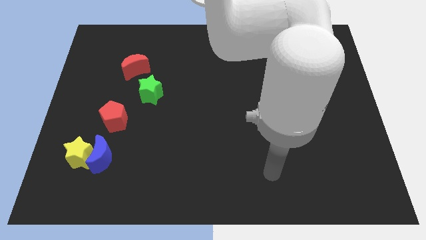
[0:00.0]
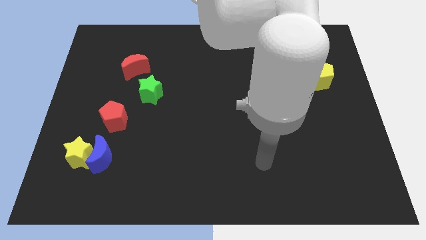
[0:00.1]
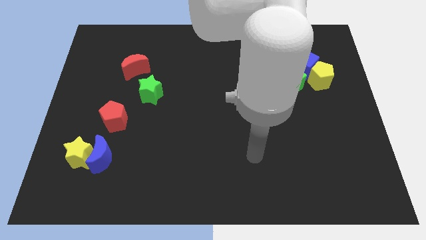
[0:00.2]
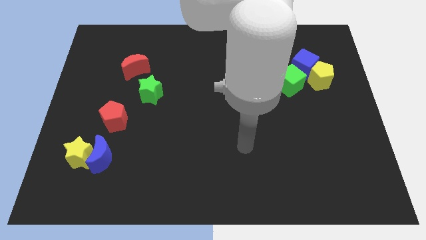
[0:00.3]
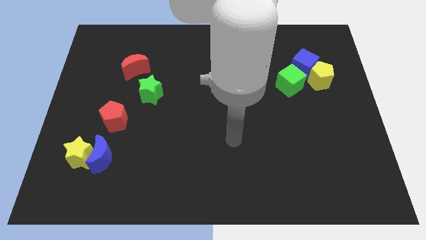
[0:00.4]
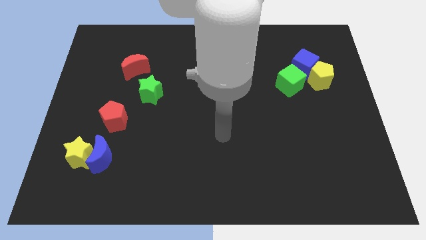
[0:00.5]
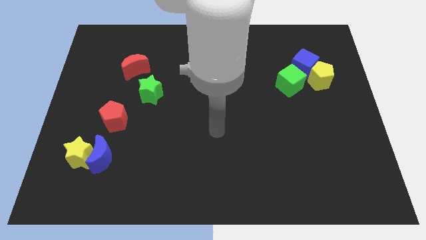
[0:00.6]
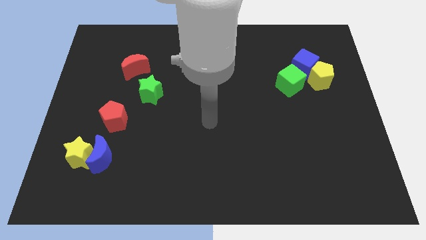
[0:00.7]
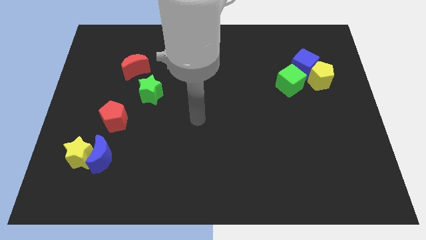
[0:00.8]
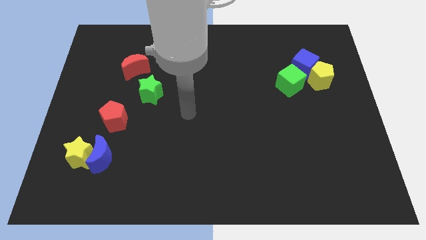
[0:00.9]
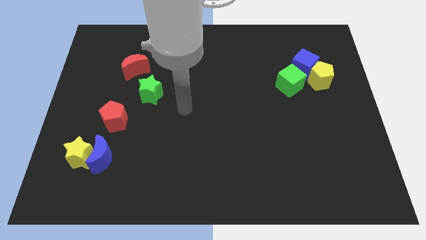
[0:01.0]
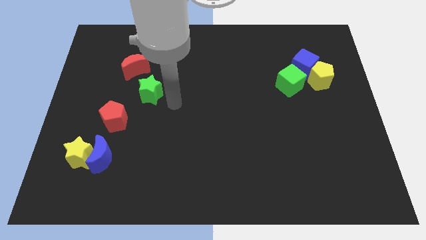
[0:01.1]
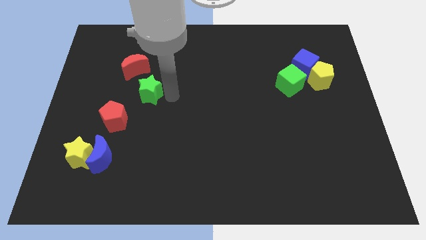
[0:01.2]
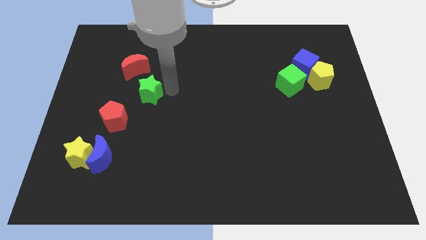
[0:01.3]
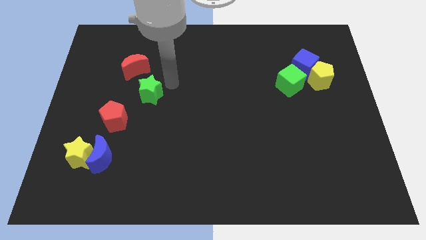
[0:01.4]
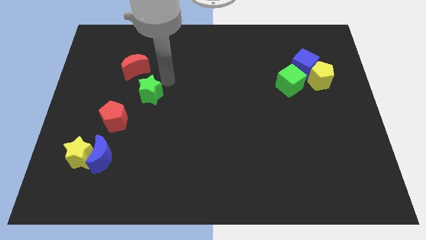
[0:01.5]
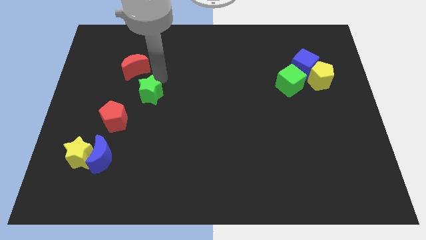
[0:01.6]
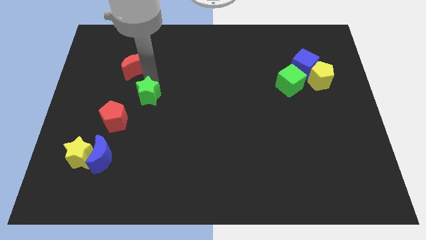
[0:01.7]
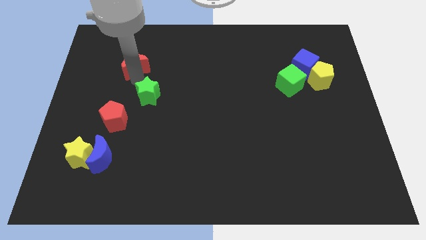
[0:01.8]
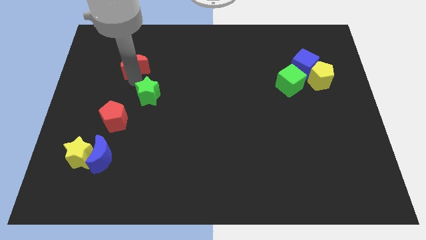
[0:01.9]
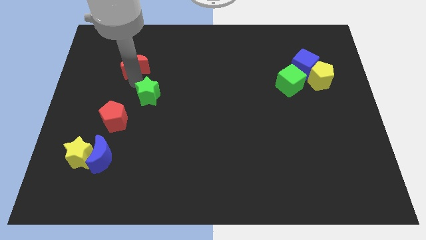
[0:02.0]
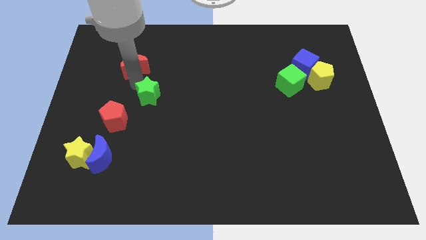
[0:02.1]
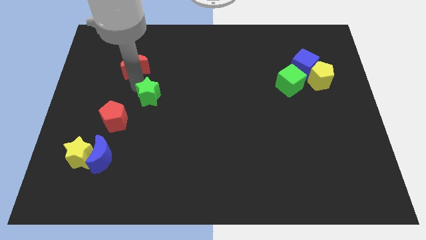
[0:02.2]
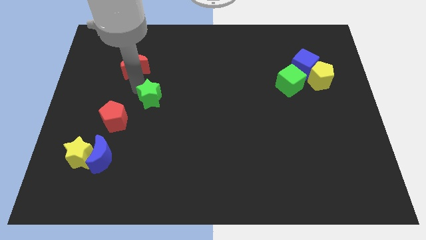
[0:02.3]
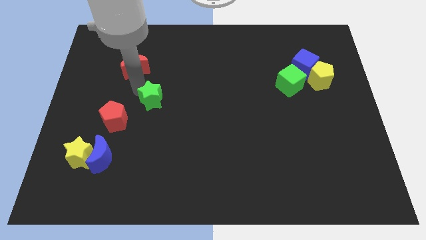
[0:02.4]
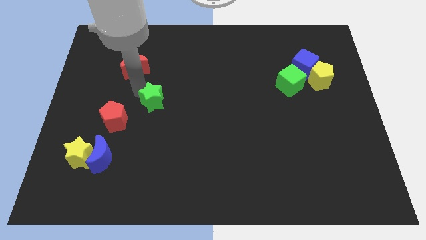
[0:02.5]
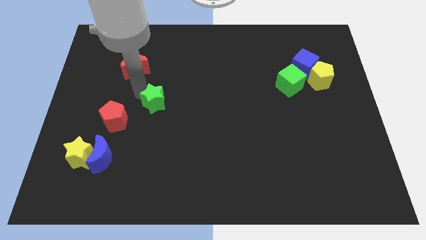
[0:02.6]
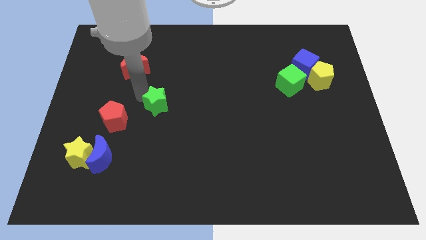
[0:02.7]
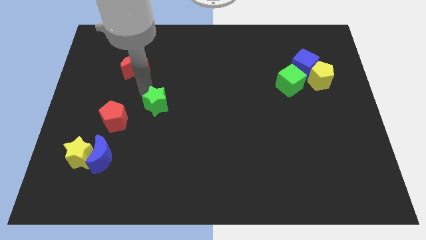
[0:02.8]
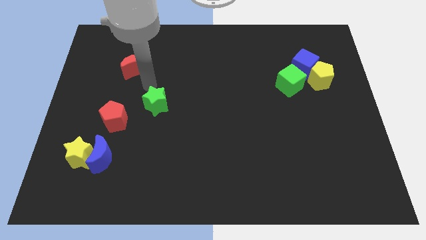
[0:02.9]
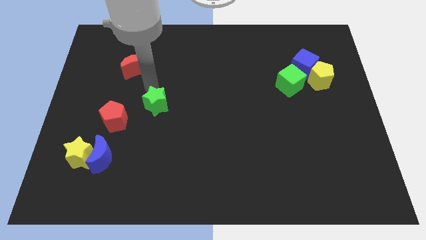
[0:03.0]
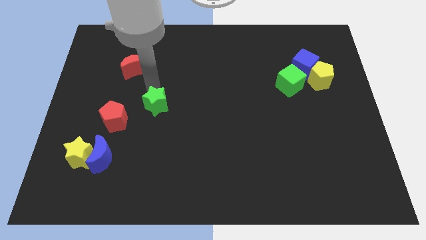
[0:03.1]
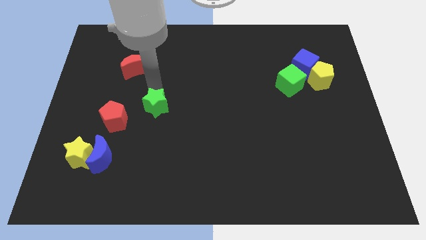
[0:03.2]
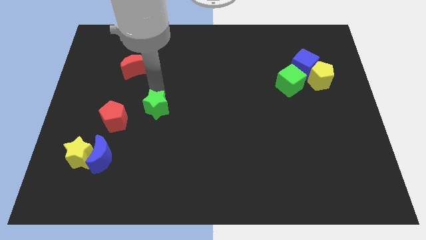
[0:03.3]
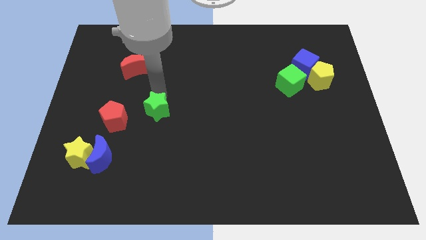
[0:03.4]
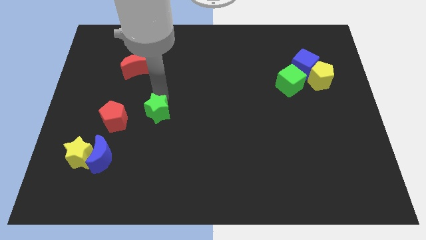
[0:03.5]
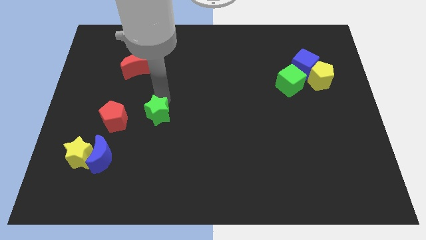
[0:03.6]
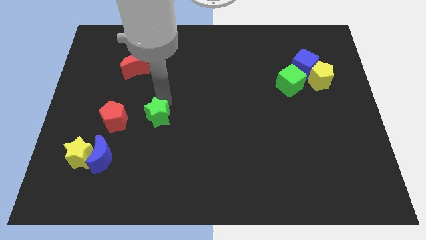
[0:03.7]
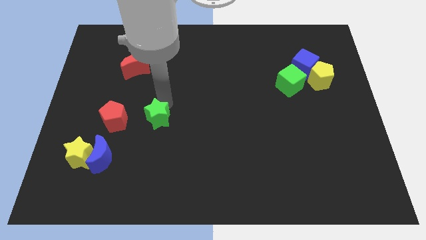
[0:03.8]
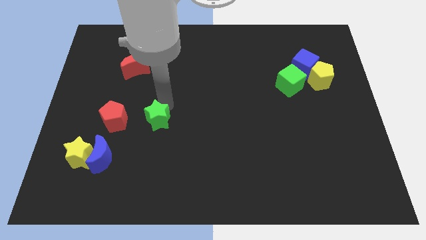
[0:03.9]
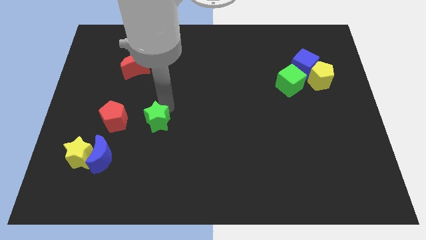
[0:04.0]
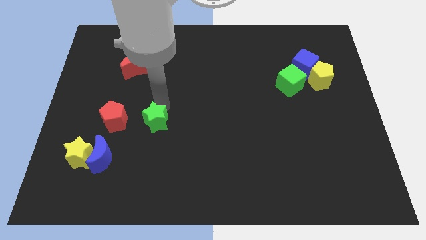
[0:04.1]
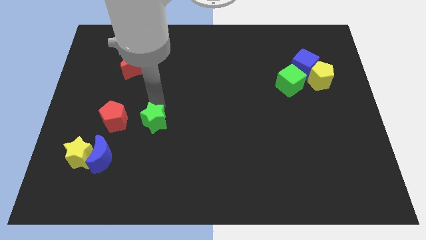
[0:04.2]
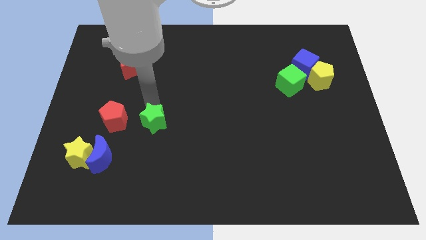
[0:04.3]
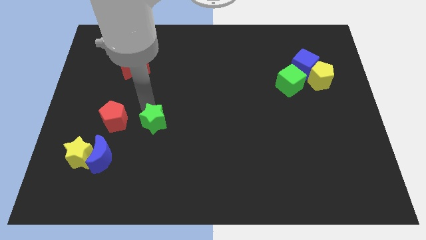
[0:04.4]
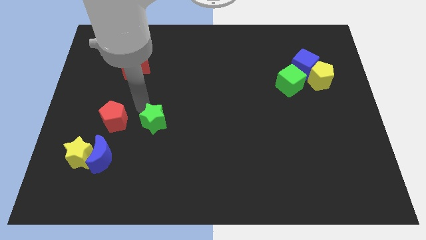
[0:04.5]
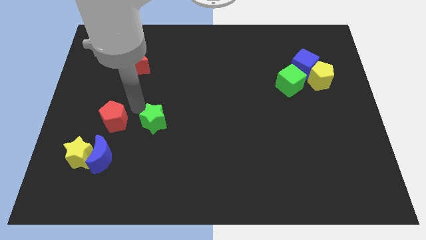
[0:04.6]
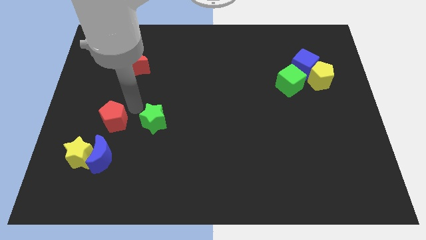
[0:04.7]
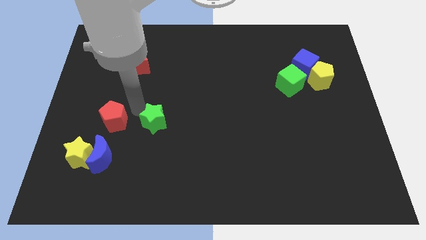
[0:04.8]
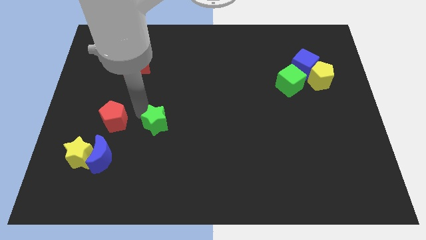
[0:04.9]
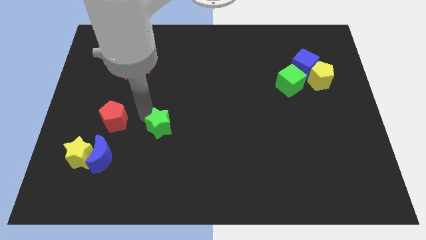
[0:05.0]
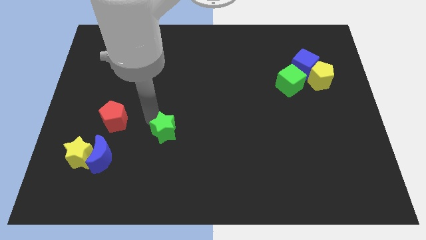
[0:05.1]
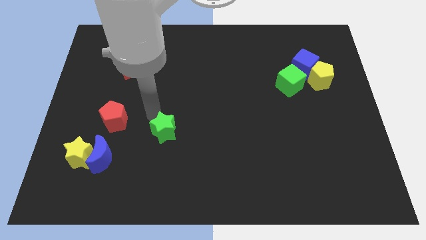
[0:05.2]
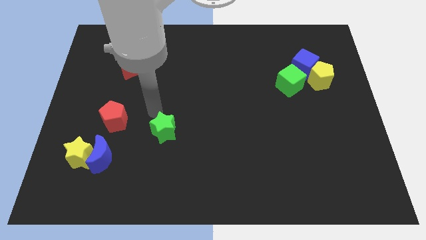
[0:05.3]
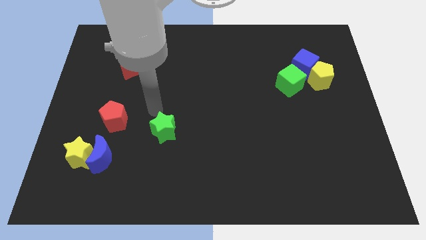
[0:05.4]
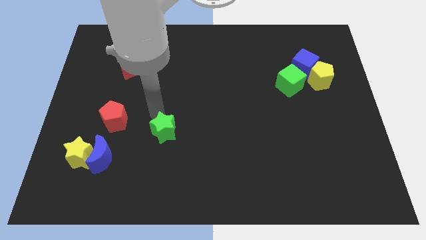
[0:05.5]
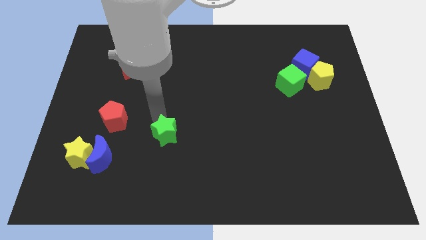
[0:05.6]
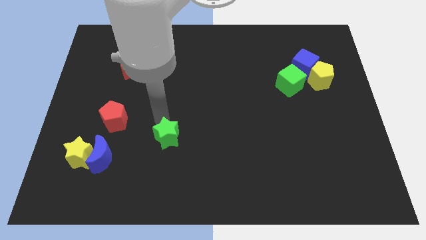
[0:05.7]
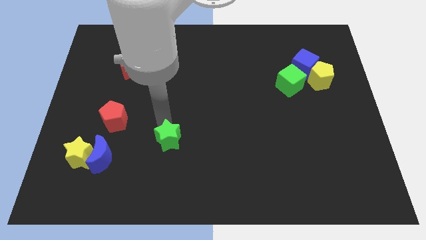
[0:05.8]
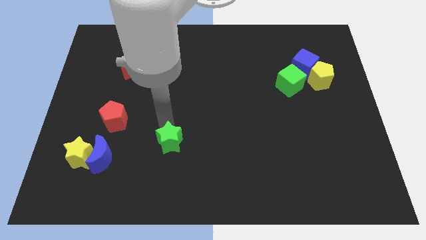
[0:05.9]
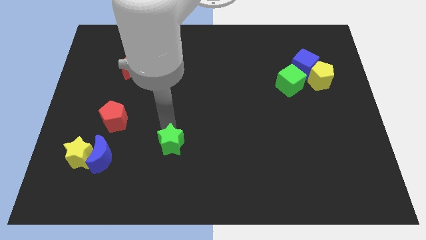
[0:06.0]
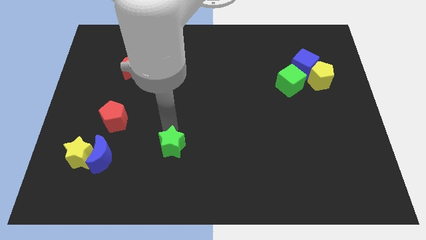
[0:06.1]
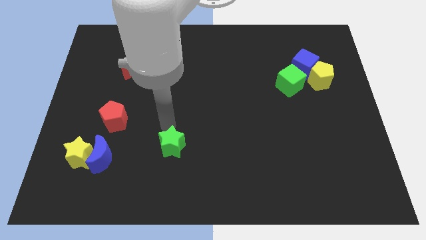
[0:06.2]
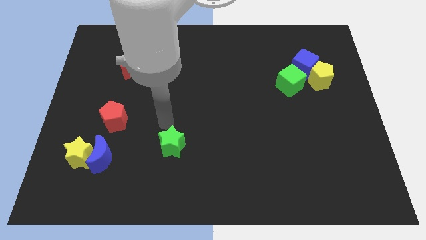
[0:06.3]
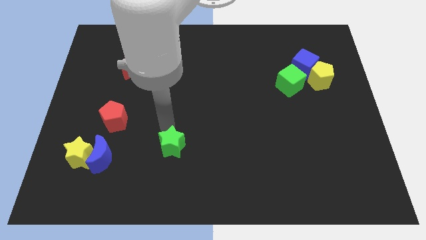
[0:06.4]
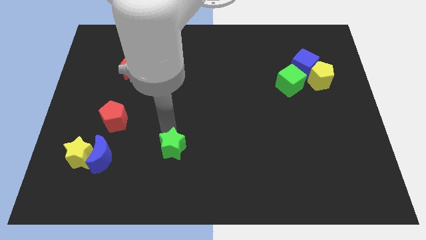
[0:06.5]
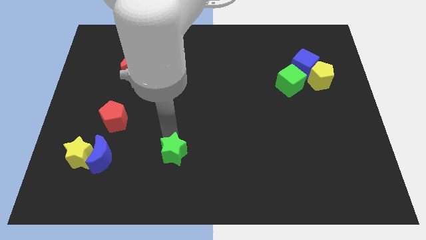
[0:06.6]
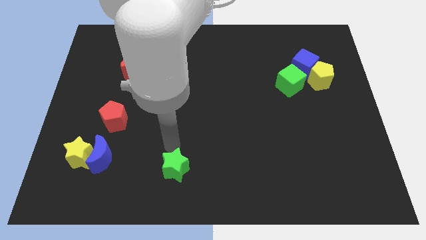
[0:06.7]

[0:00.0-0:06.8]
put the green star to the bottom
